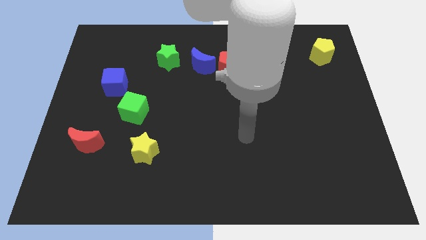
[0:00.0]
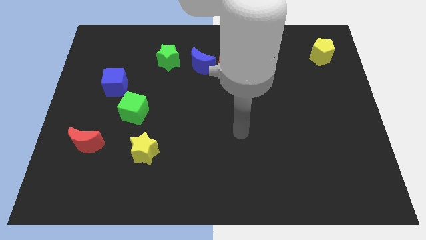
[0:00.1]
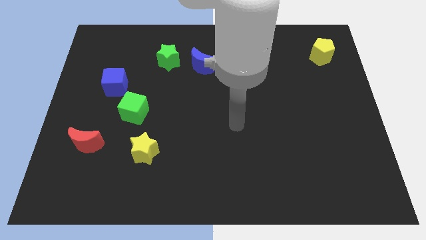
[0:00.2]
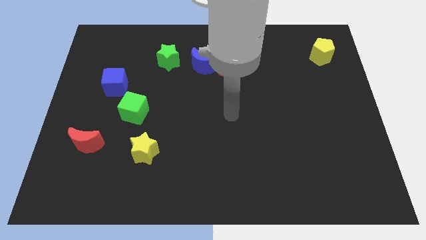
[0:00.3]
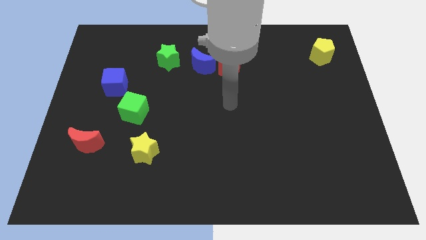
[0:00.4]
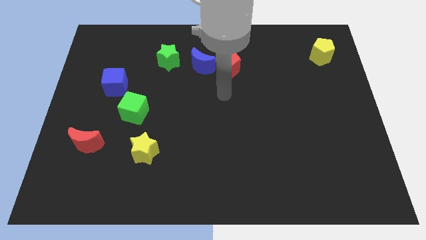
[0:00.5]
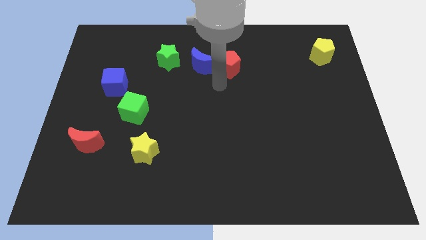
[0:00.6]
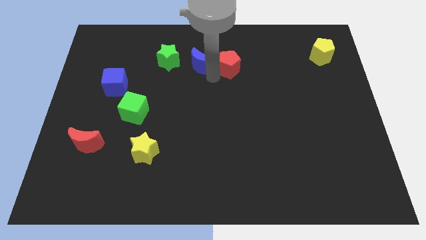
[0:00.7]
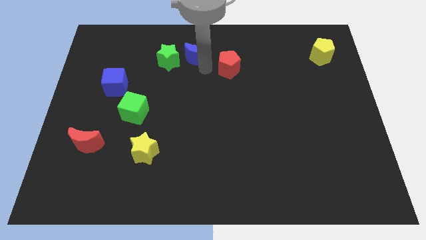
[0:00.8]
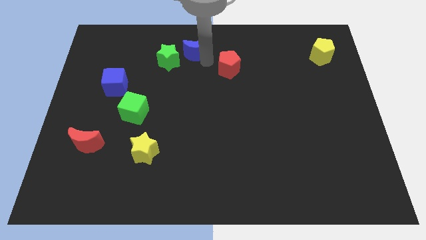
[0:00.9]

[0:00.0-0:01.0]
separate the red pentagon from the blue moon

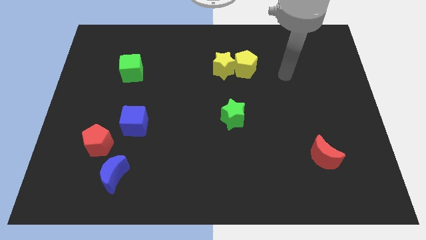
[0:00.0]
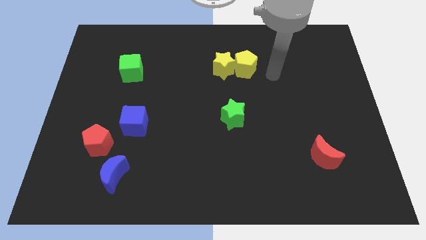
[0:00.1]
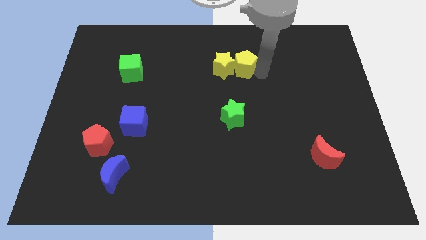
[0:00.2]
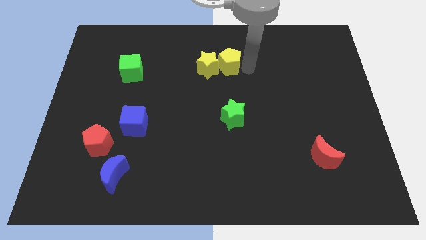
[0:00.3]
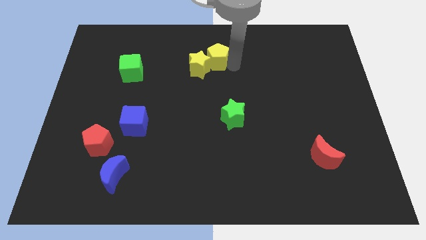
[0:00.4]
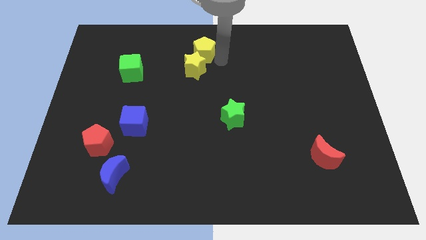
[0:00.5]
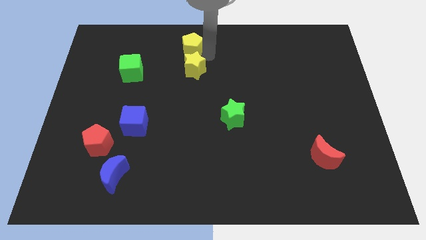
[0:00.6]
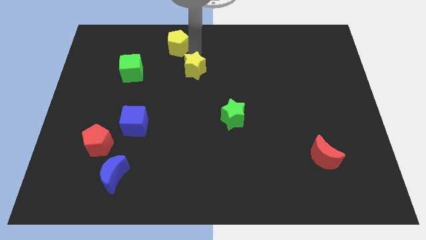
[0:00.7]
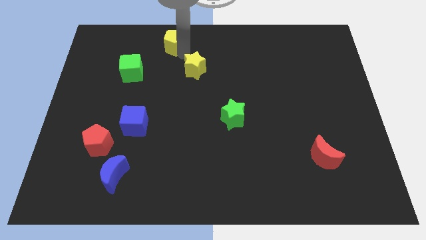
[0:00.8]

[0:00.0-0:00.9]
separate the yellow star from the yellow pentagon

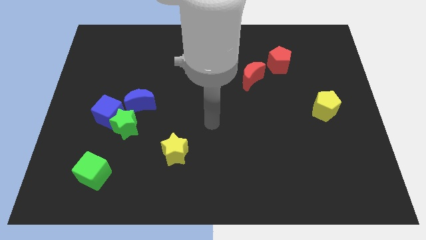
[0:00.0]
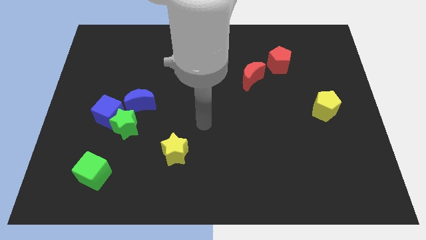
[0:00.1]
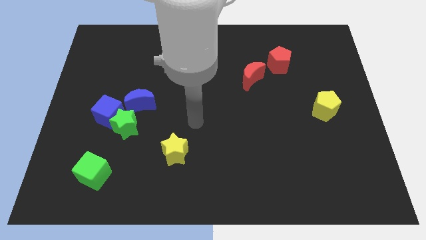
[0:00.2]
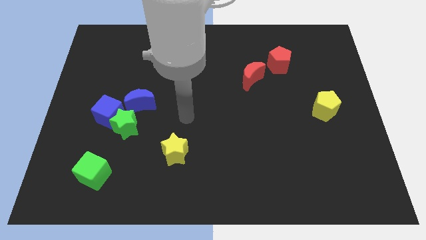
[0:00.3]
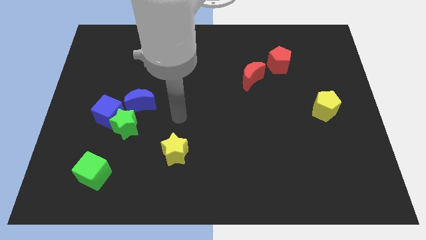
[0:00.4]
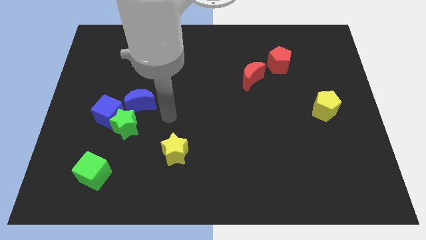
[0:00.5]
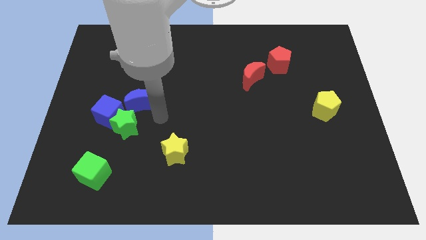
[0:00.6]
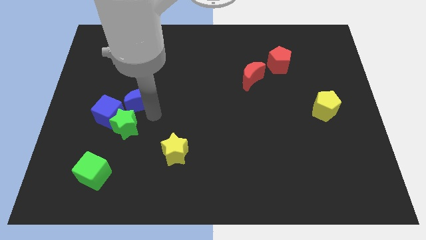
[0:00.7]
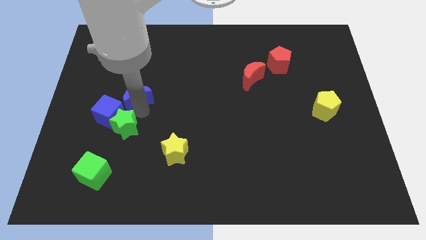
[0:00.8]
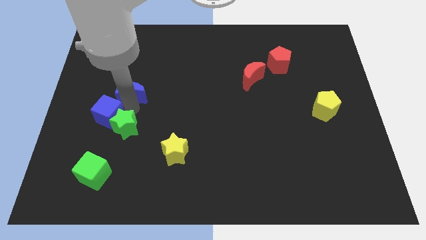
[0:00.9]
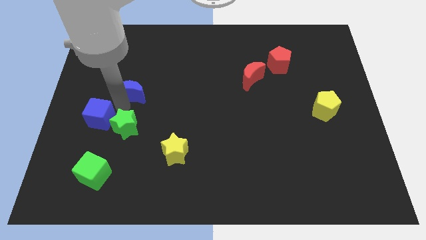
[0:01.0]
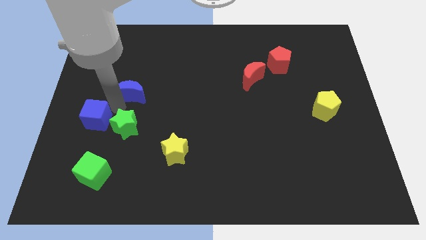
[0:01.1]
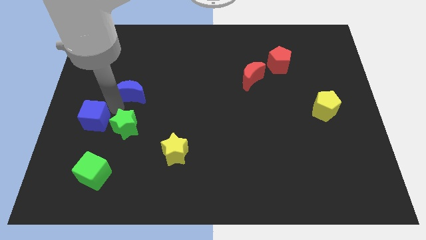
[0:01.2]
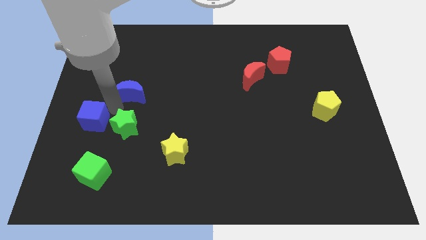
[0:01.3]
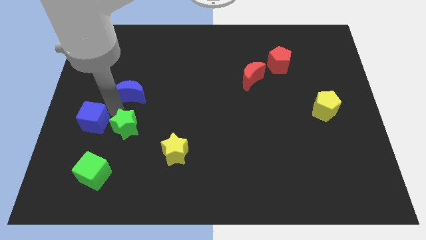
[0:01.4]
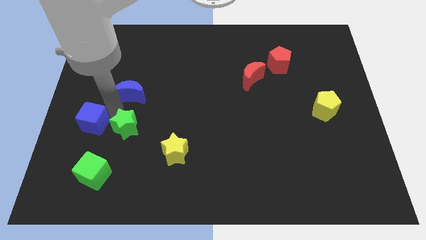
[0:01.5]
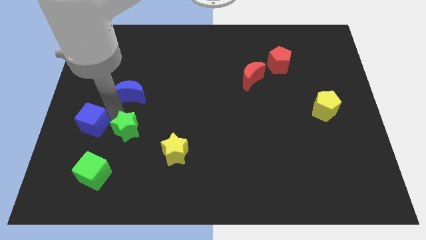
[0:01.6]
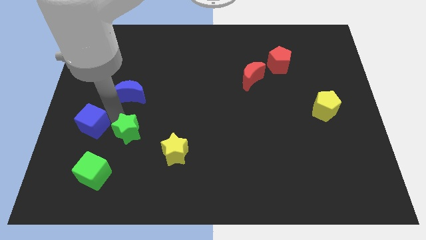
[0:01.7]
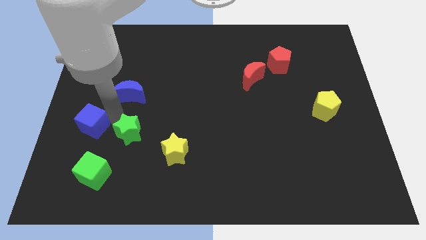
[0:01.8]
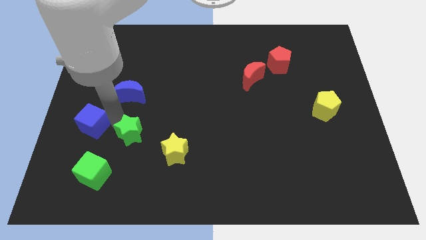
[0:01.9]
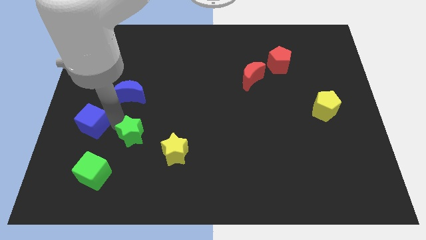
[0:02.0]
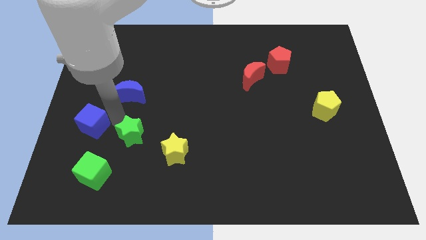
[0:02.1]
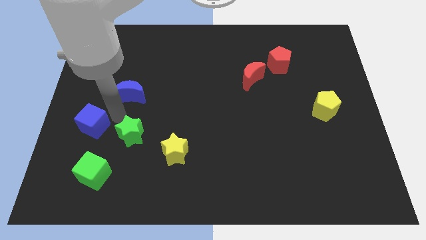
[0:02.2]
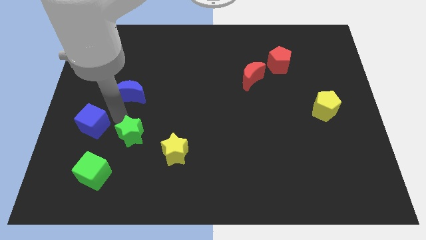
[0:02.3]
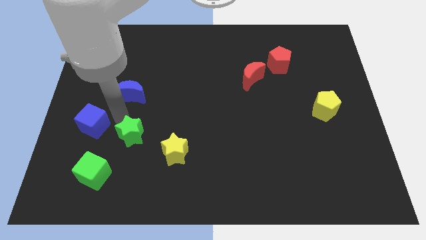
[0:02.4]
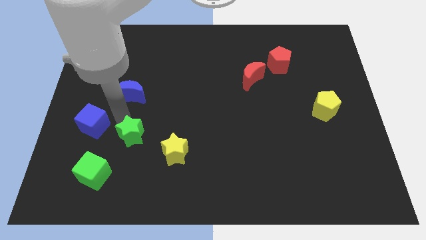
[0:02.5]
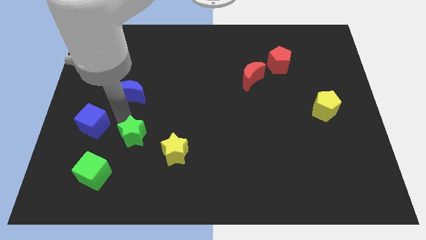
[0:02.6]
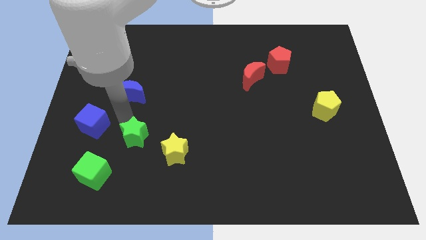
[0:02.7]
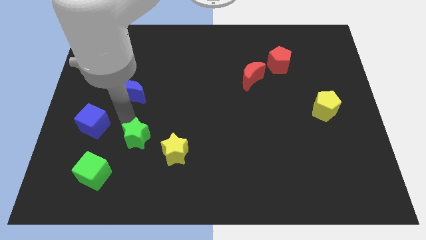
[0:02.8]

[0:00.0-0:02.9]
separate the green star from the blue cube and blue moon

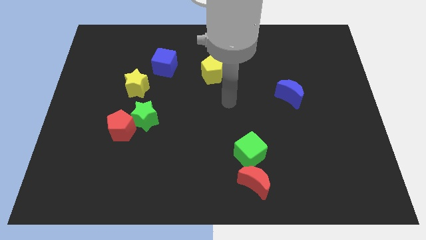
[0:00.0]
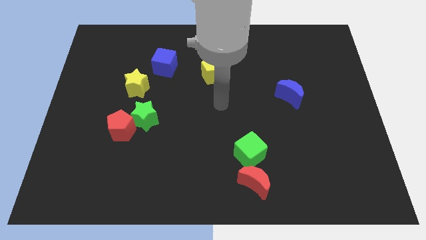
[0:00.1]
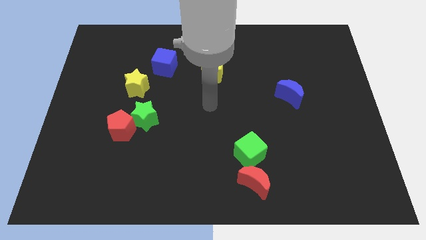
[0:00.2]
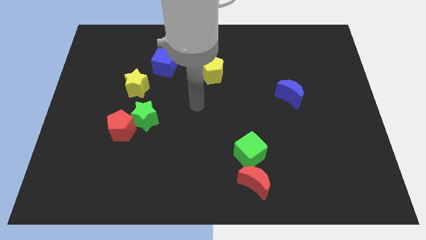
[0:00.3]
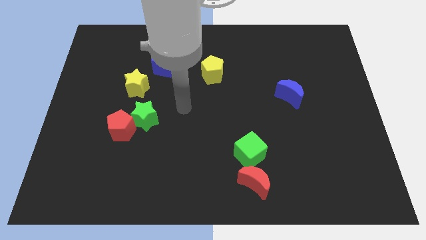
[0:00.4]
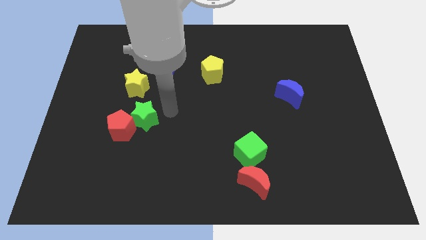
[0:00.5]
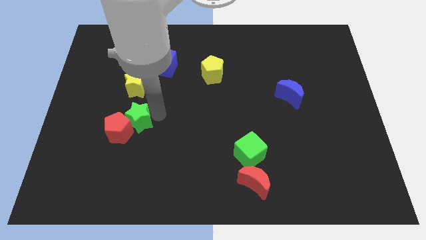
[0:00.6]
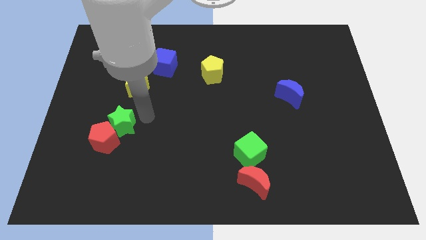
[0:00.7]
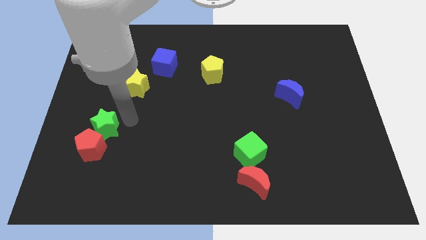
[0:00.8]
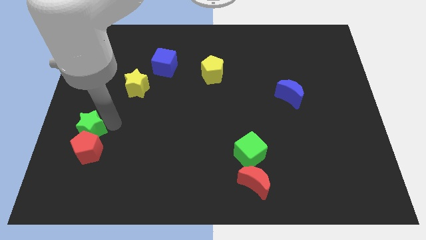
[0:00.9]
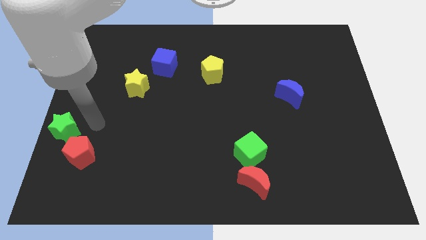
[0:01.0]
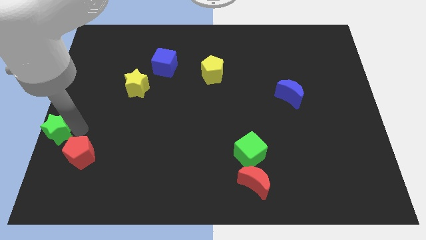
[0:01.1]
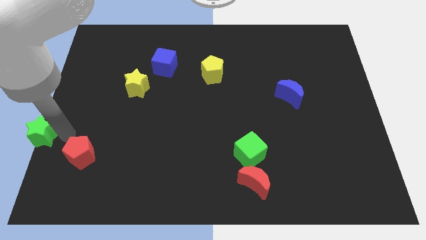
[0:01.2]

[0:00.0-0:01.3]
separate the red pentagon from the green star

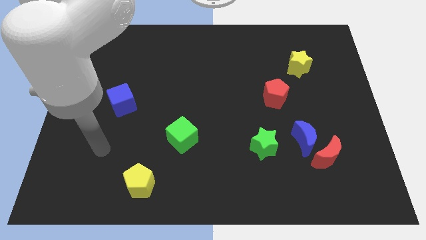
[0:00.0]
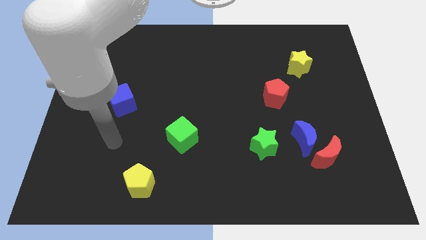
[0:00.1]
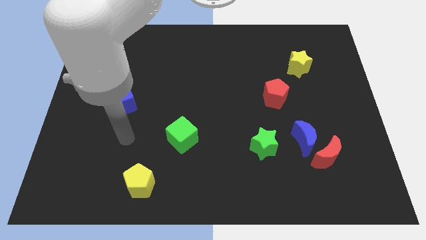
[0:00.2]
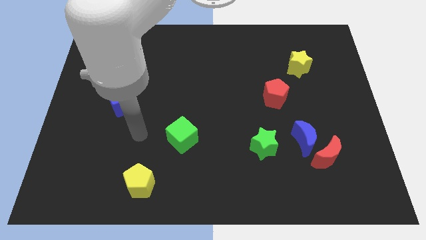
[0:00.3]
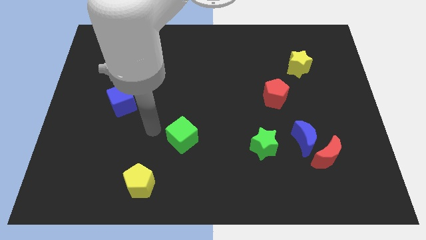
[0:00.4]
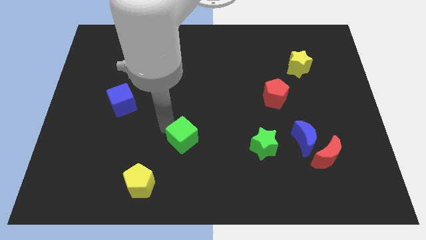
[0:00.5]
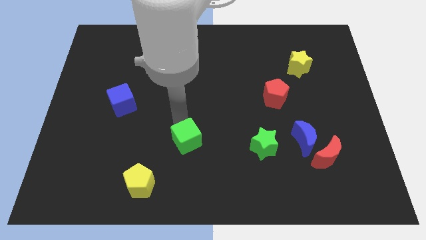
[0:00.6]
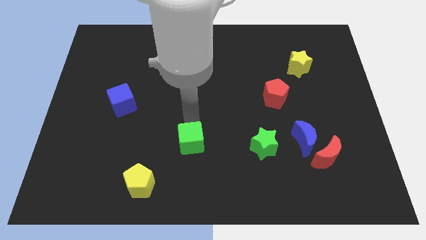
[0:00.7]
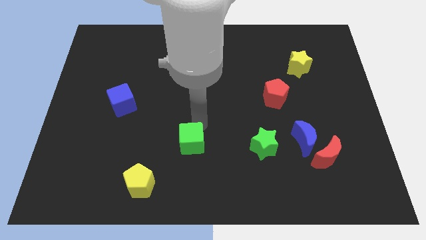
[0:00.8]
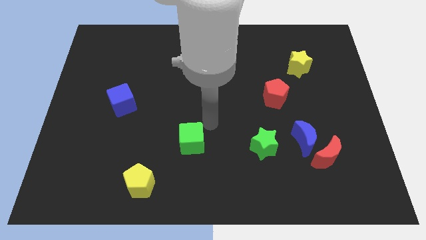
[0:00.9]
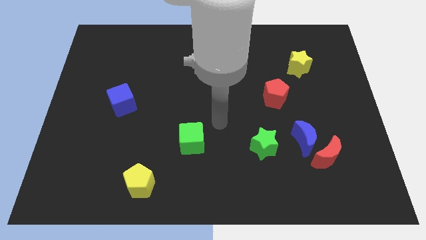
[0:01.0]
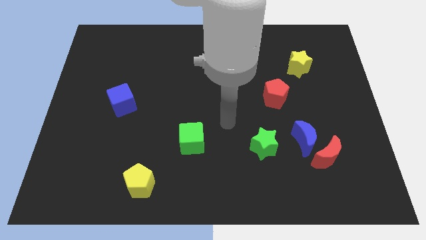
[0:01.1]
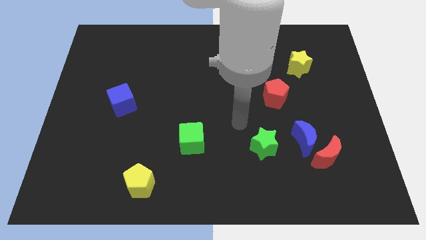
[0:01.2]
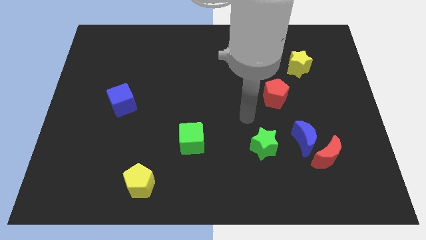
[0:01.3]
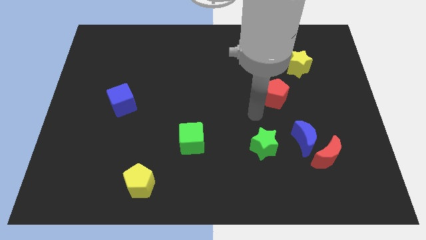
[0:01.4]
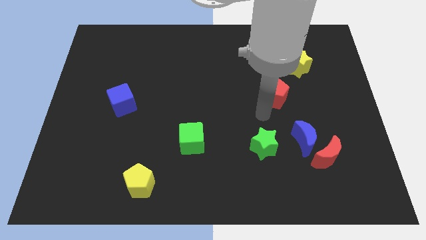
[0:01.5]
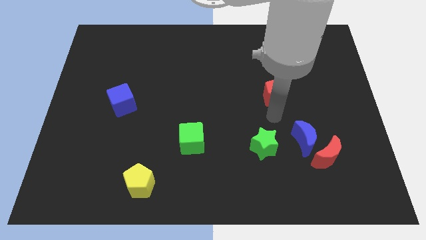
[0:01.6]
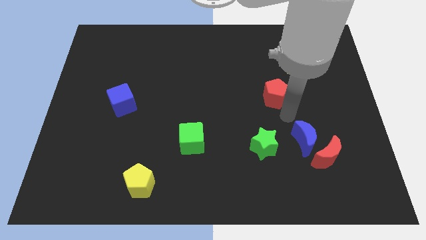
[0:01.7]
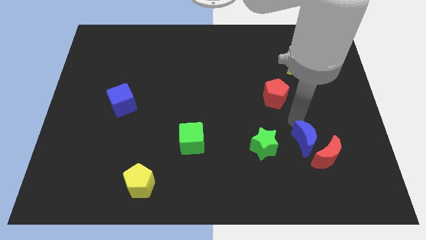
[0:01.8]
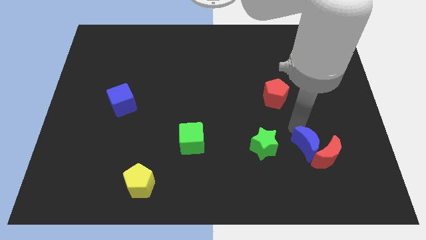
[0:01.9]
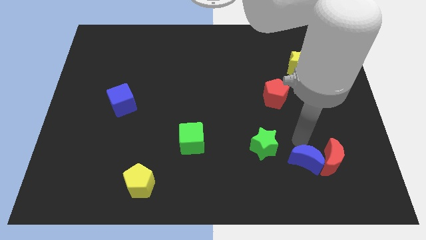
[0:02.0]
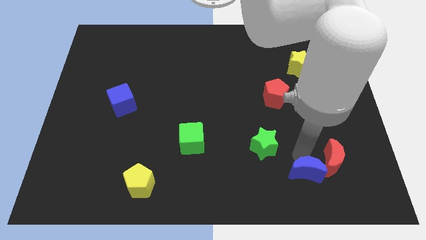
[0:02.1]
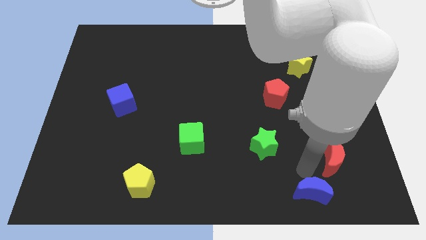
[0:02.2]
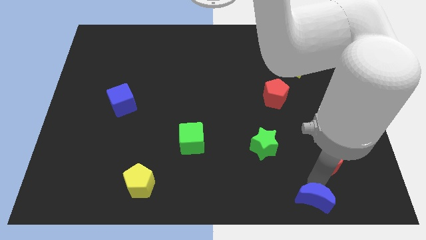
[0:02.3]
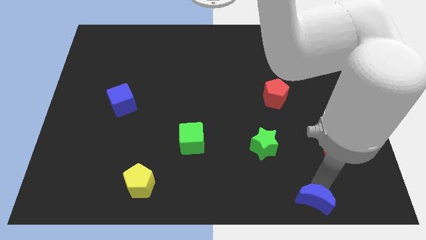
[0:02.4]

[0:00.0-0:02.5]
move the red moon away from the blue moon

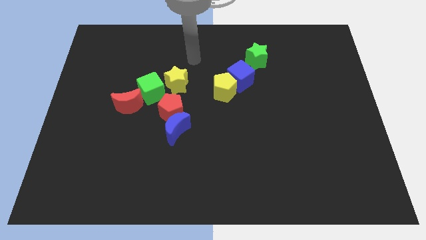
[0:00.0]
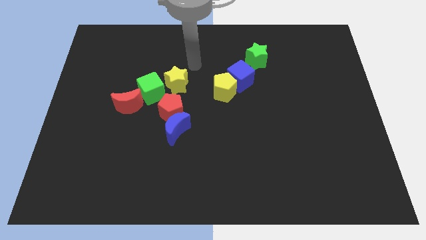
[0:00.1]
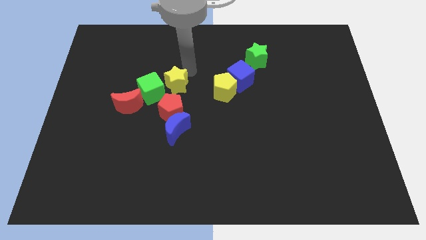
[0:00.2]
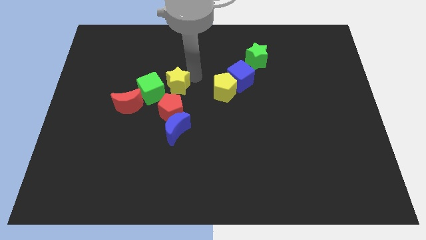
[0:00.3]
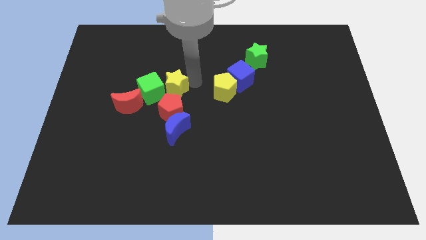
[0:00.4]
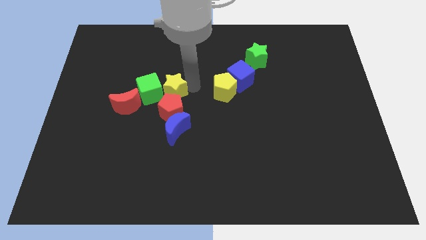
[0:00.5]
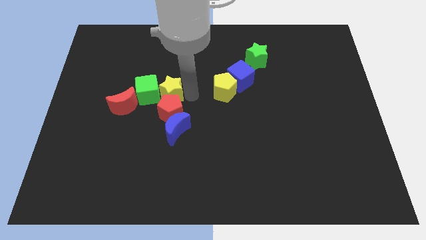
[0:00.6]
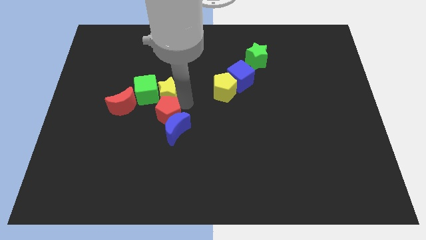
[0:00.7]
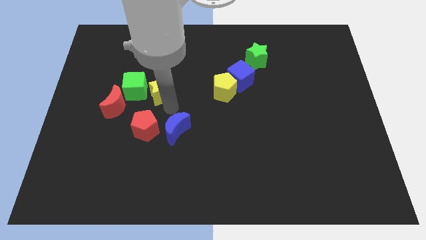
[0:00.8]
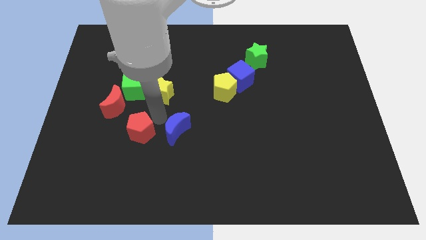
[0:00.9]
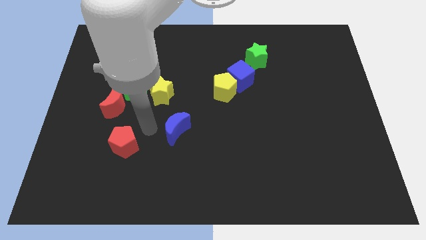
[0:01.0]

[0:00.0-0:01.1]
pull the blue moon apart from the red pentagon
